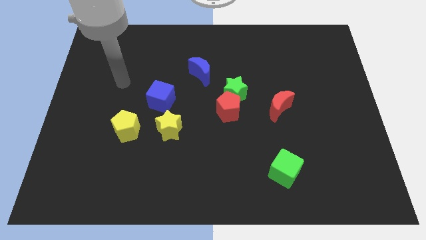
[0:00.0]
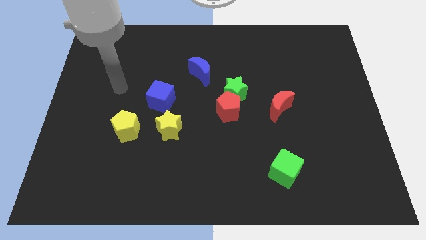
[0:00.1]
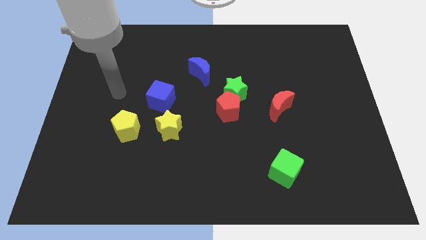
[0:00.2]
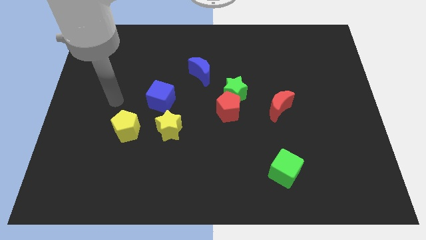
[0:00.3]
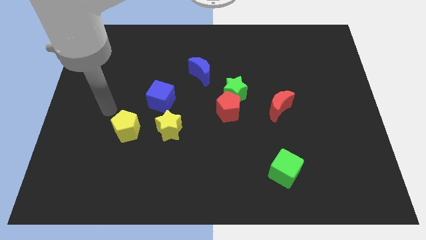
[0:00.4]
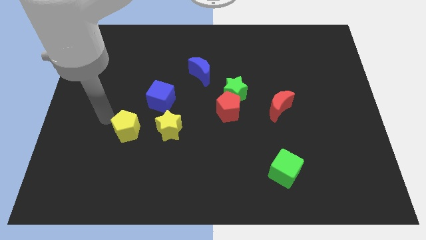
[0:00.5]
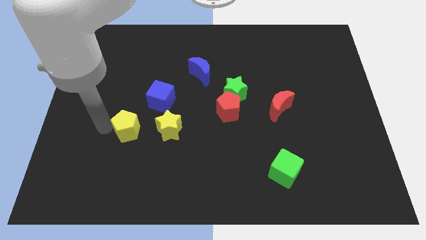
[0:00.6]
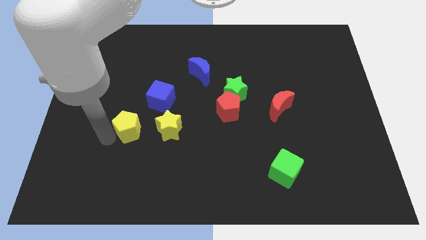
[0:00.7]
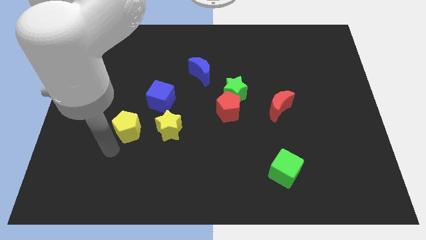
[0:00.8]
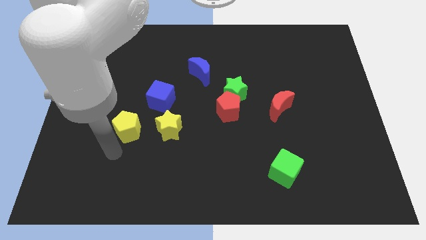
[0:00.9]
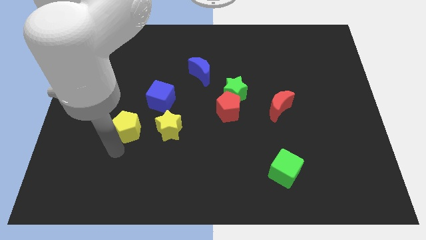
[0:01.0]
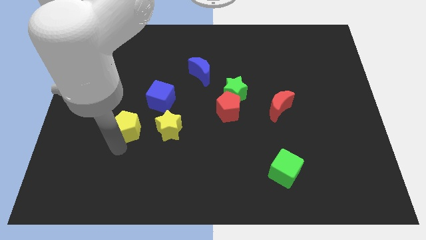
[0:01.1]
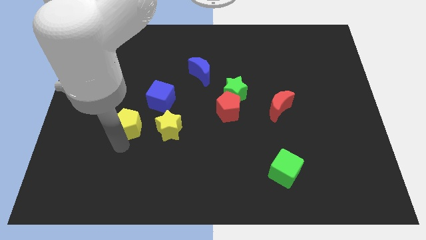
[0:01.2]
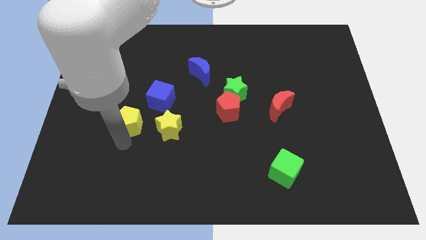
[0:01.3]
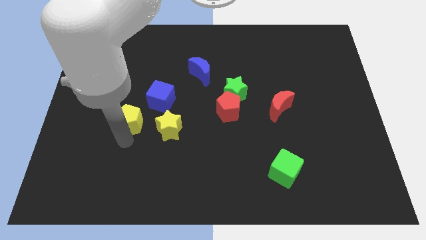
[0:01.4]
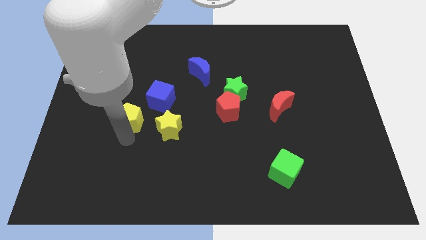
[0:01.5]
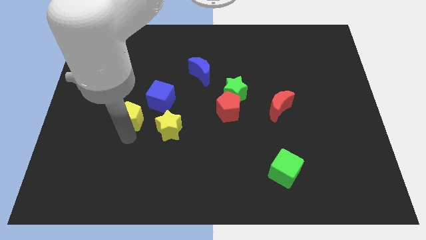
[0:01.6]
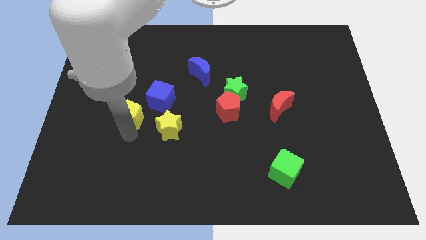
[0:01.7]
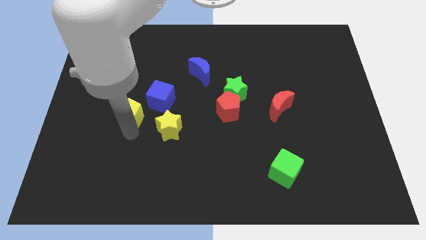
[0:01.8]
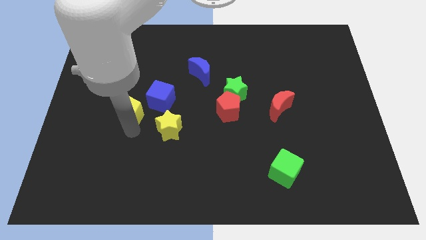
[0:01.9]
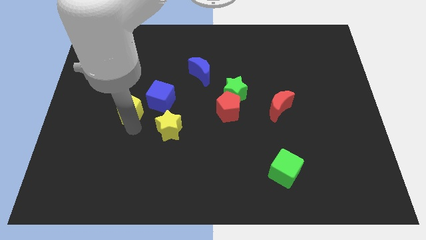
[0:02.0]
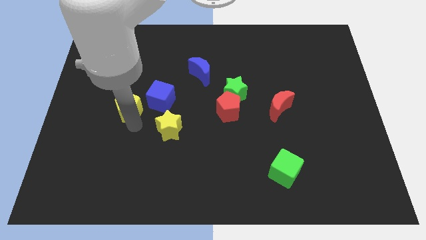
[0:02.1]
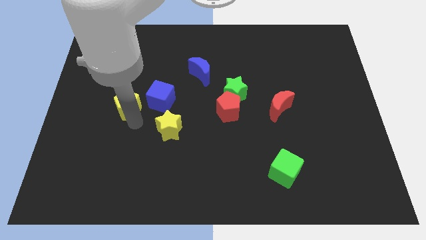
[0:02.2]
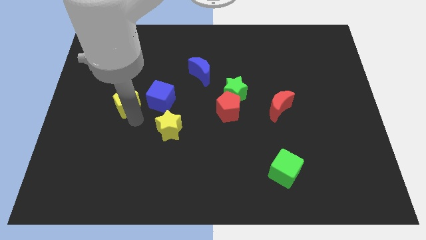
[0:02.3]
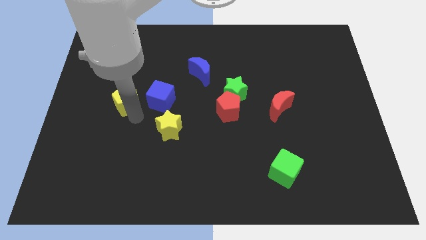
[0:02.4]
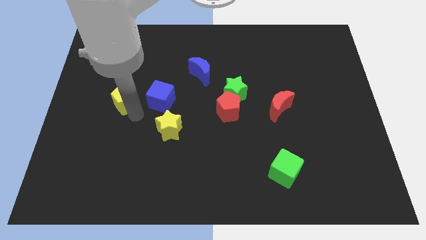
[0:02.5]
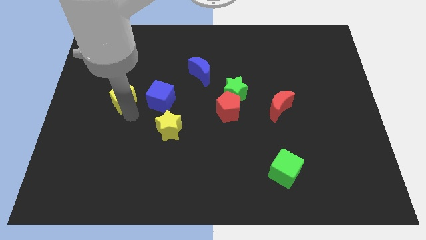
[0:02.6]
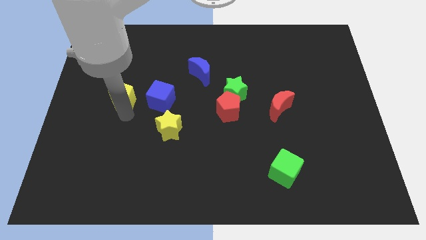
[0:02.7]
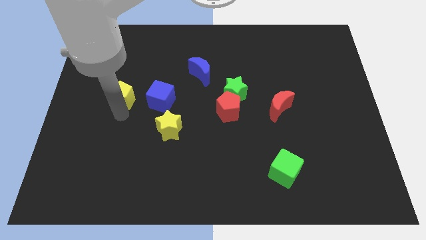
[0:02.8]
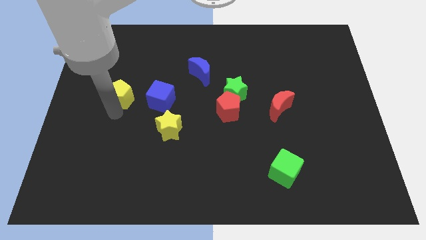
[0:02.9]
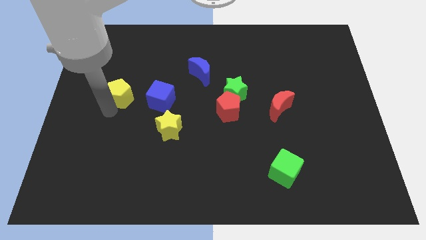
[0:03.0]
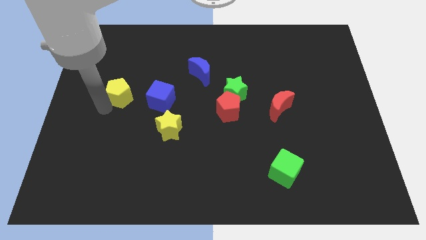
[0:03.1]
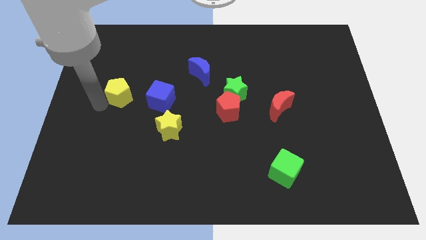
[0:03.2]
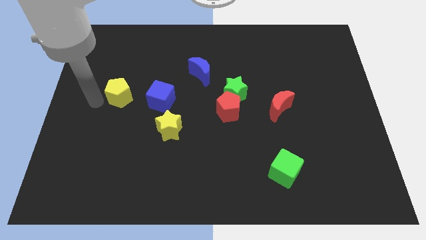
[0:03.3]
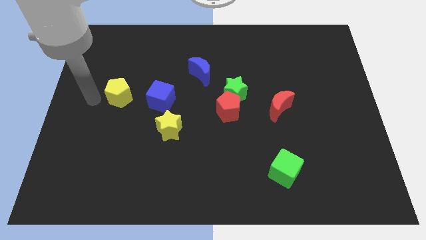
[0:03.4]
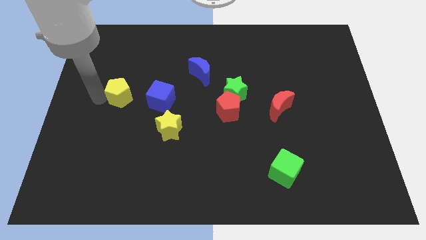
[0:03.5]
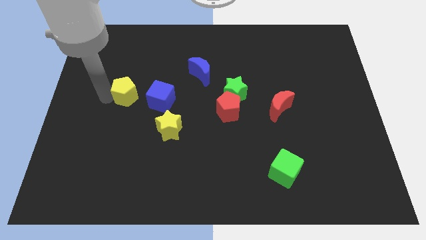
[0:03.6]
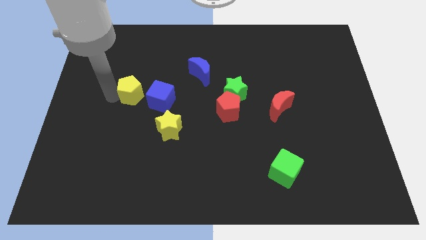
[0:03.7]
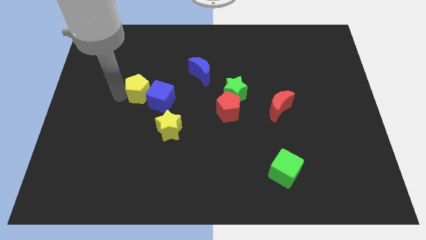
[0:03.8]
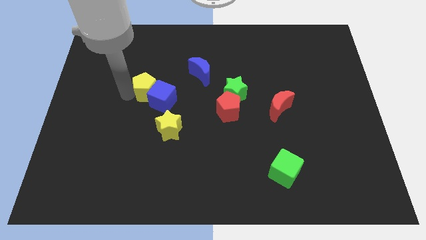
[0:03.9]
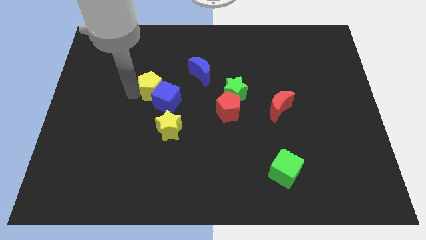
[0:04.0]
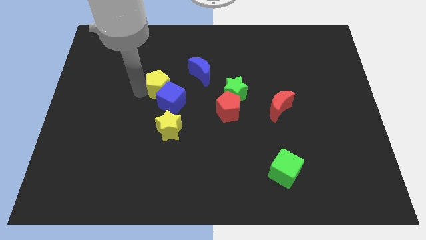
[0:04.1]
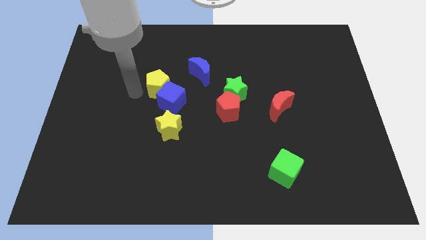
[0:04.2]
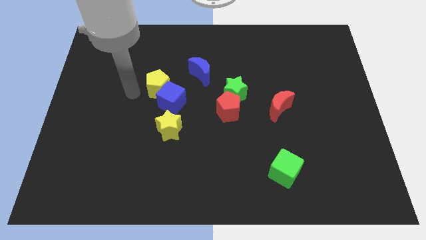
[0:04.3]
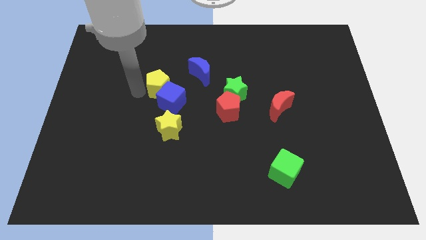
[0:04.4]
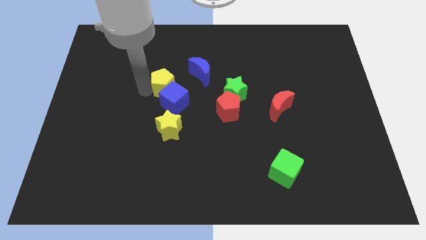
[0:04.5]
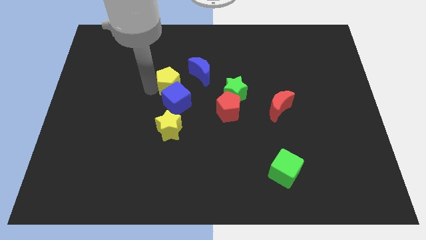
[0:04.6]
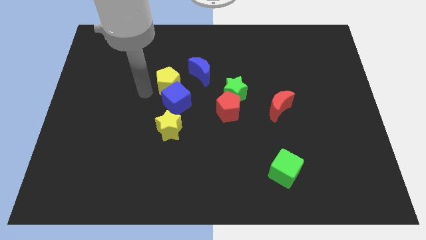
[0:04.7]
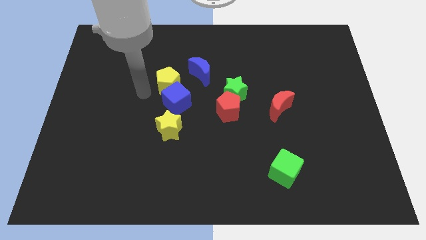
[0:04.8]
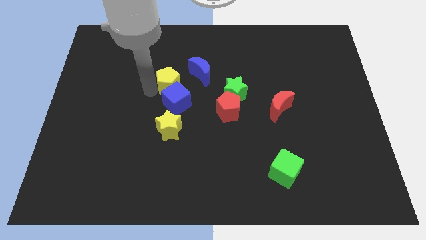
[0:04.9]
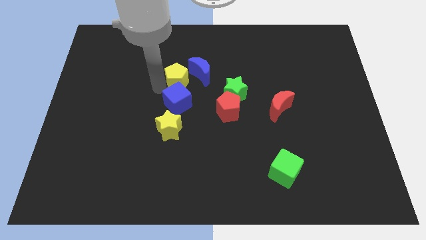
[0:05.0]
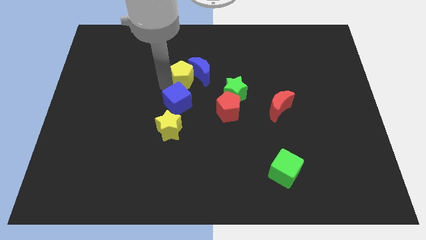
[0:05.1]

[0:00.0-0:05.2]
push the yellow pentagon towards the blue moon

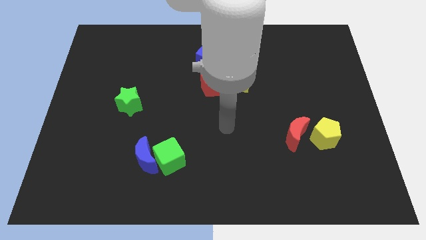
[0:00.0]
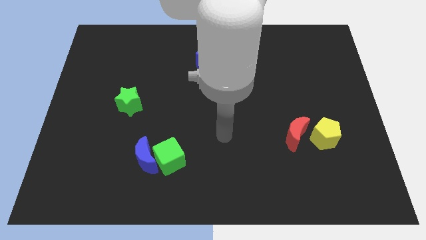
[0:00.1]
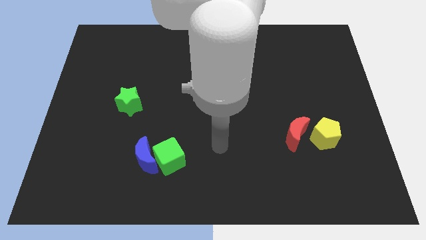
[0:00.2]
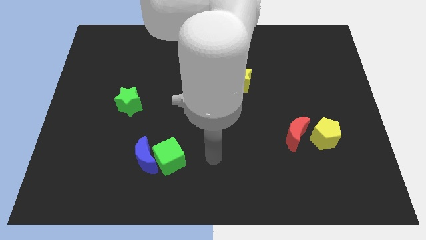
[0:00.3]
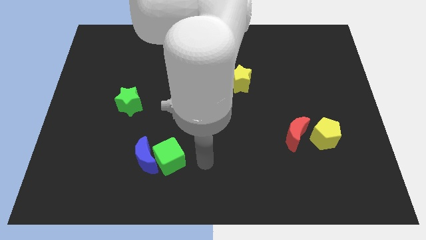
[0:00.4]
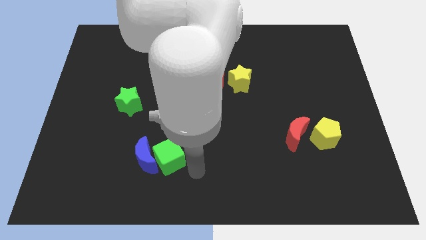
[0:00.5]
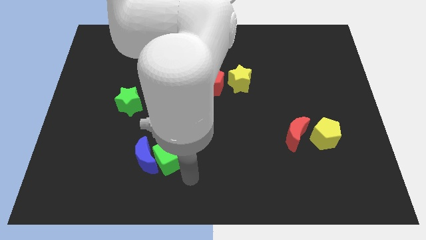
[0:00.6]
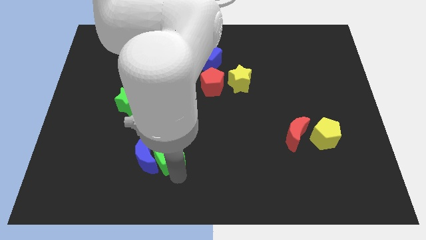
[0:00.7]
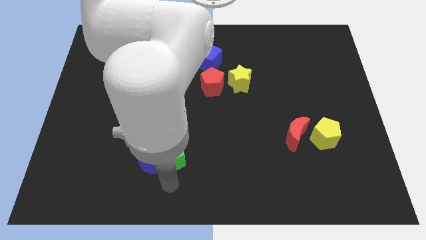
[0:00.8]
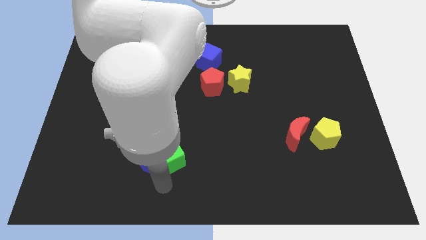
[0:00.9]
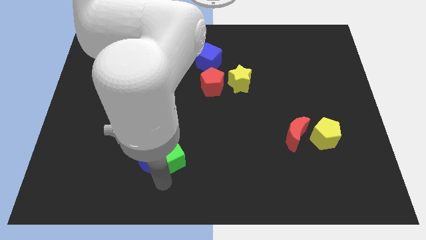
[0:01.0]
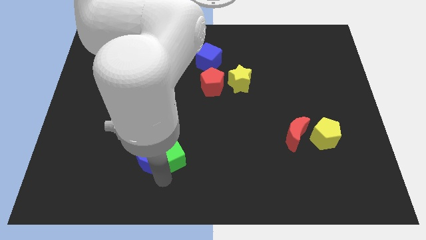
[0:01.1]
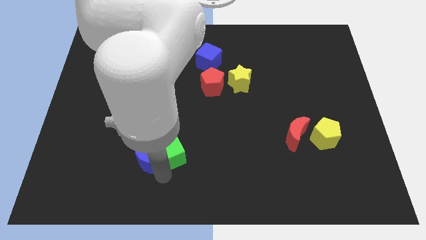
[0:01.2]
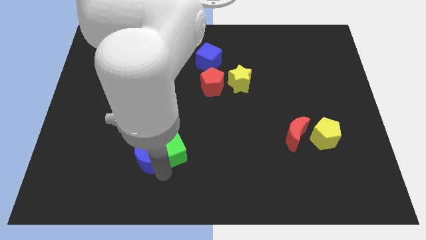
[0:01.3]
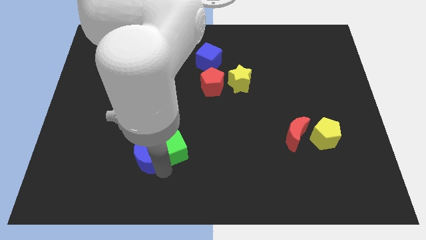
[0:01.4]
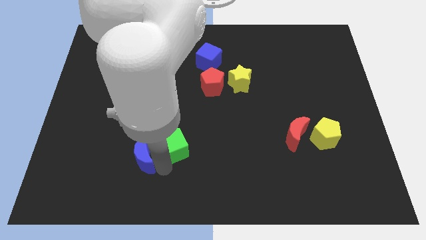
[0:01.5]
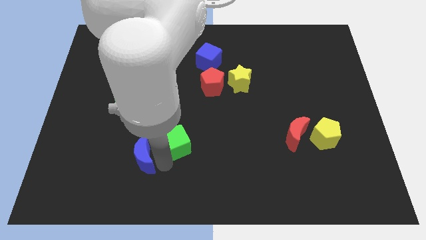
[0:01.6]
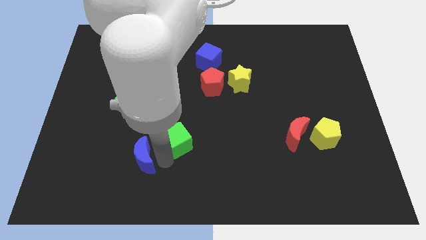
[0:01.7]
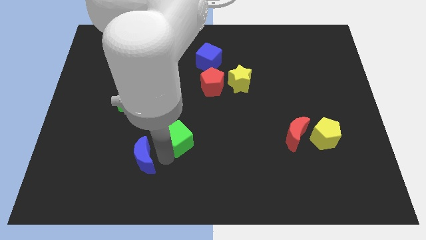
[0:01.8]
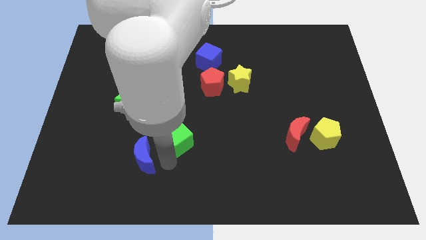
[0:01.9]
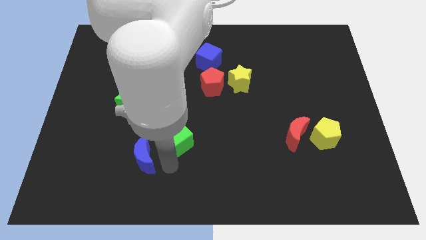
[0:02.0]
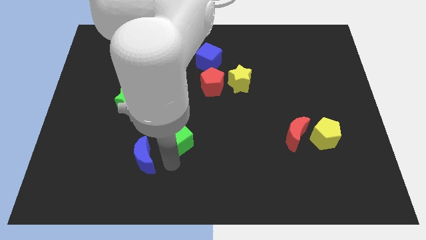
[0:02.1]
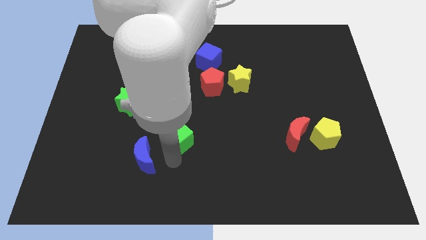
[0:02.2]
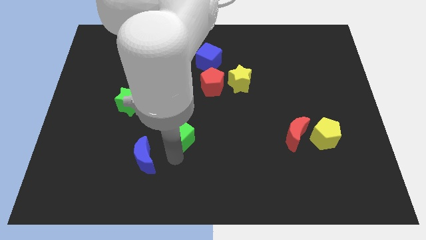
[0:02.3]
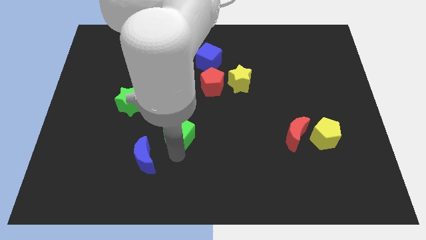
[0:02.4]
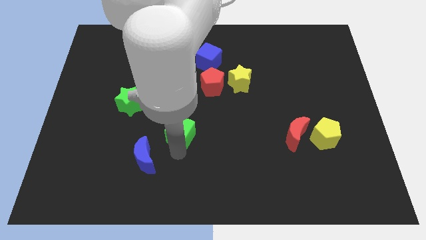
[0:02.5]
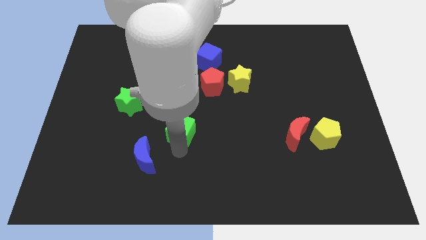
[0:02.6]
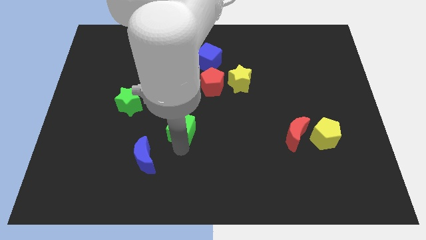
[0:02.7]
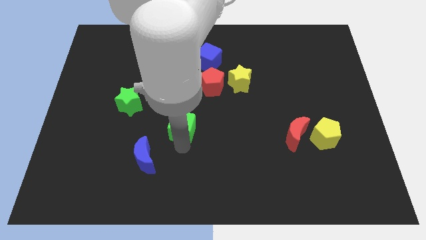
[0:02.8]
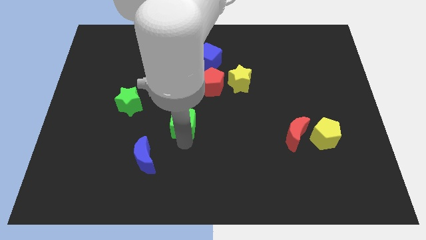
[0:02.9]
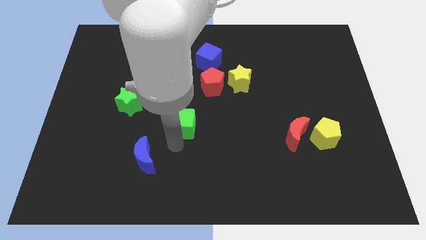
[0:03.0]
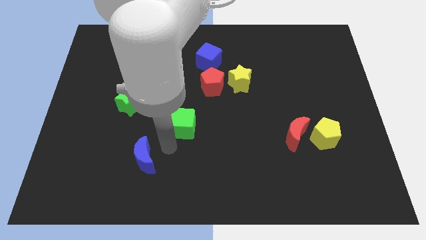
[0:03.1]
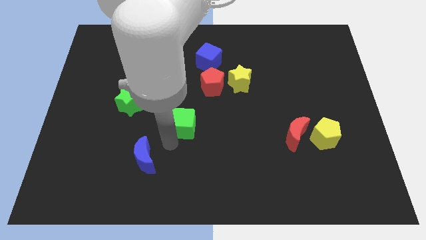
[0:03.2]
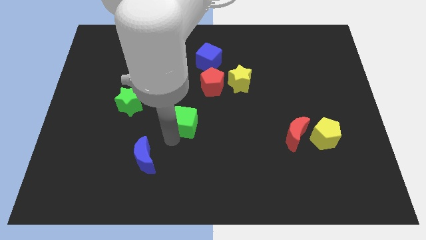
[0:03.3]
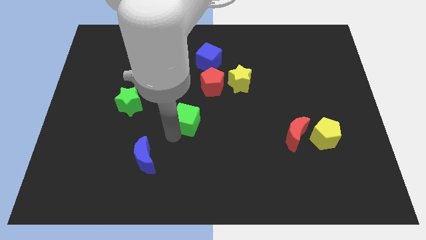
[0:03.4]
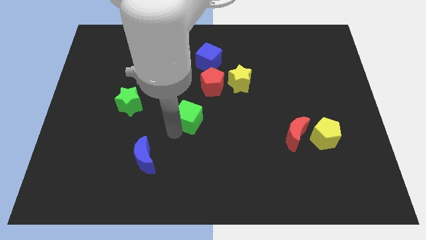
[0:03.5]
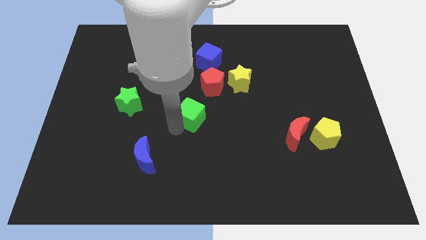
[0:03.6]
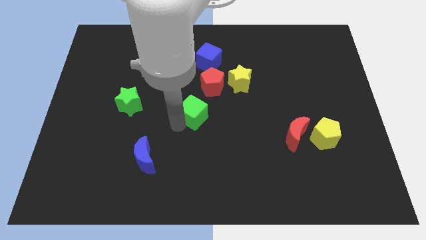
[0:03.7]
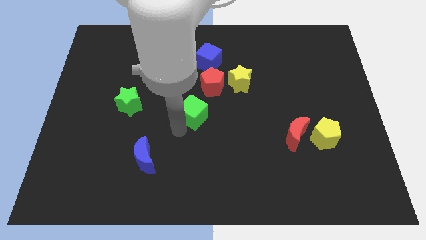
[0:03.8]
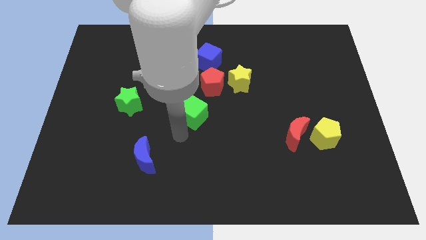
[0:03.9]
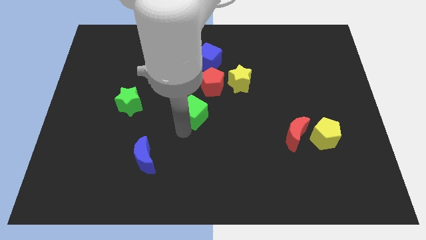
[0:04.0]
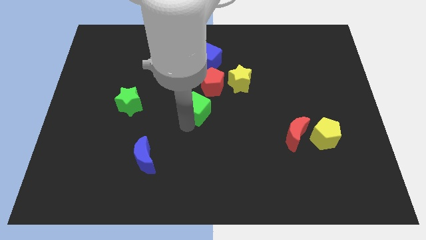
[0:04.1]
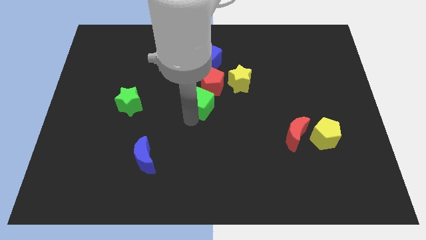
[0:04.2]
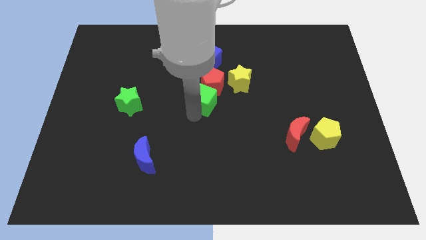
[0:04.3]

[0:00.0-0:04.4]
push the green cube close to the red pentagon
